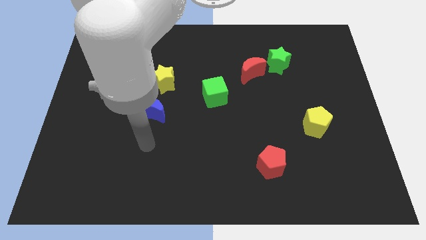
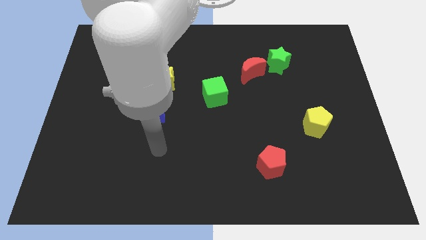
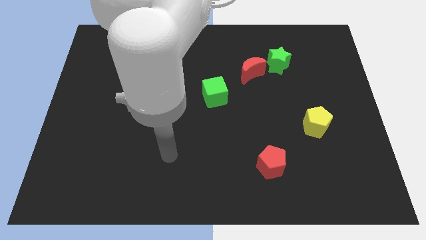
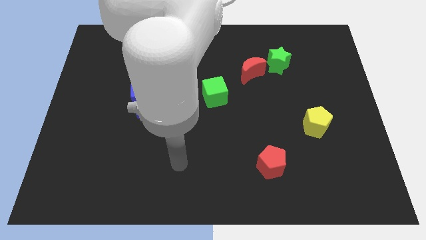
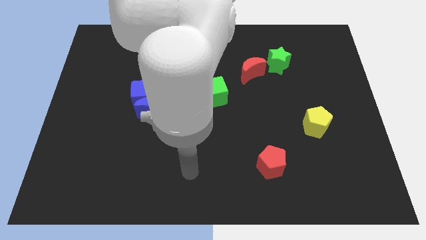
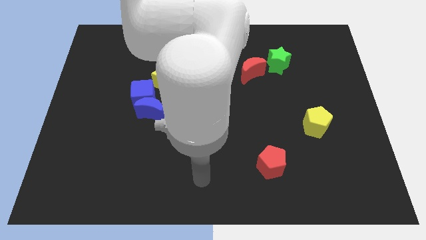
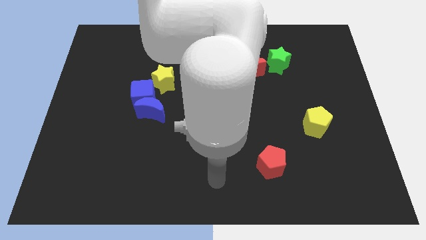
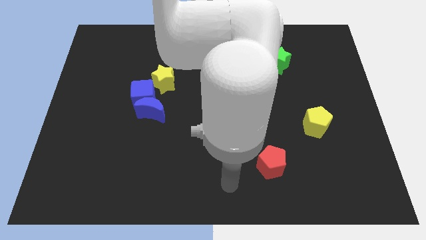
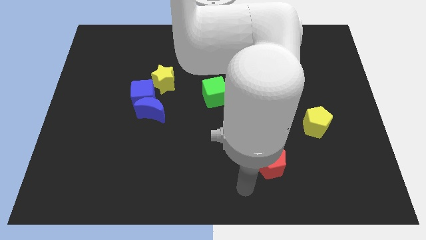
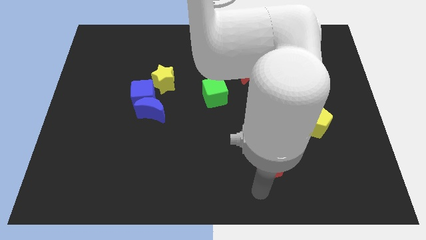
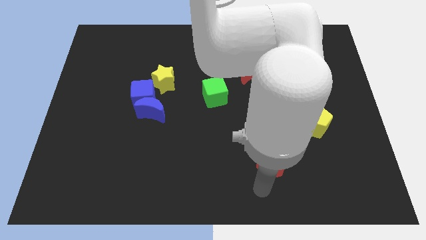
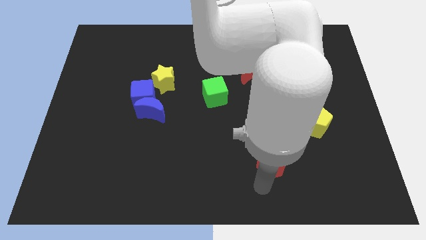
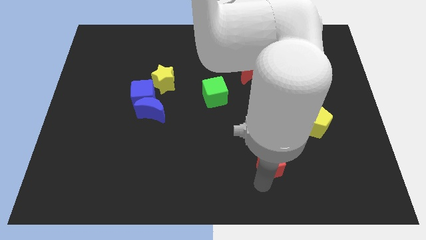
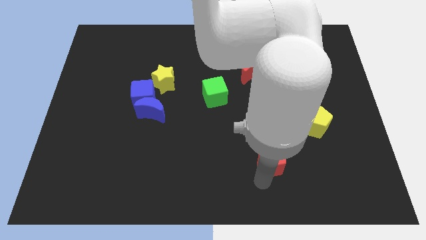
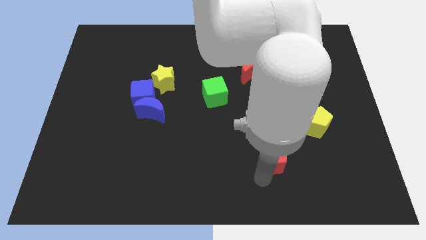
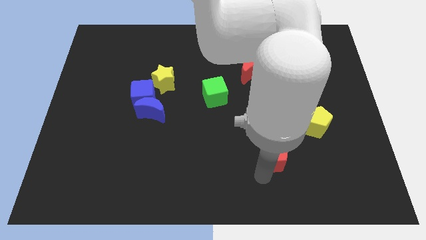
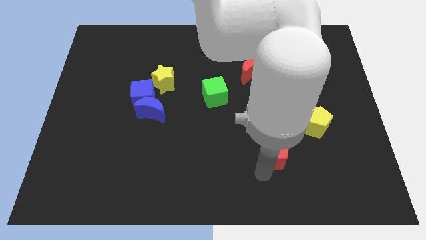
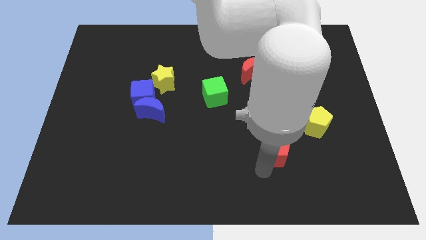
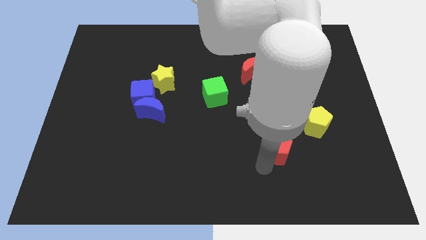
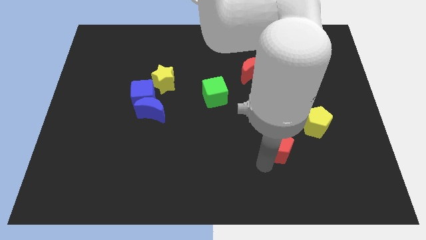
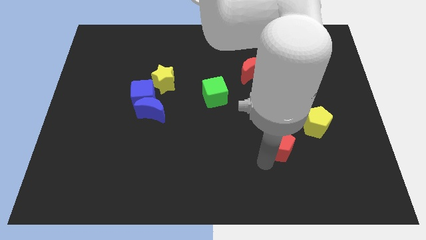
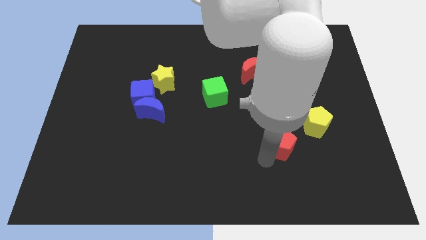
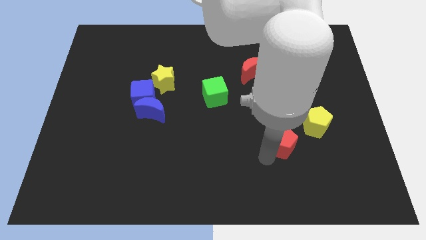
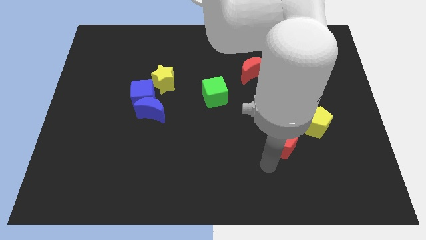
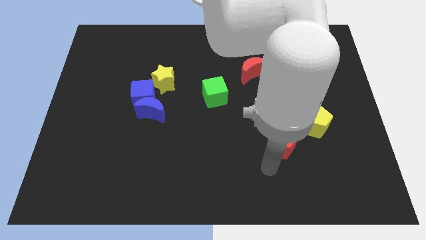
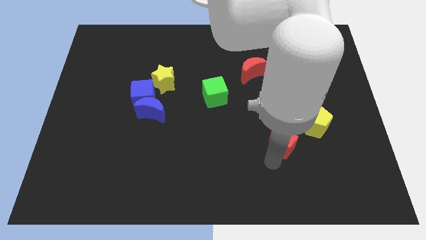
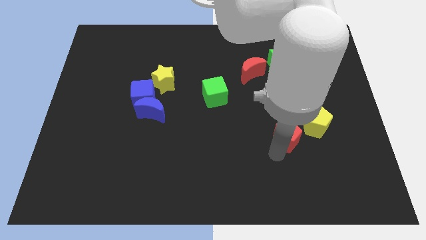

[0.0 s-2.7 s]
push the red pentagon somewhat up and then right

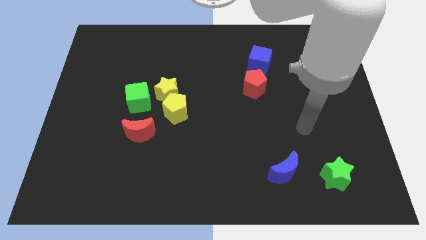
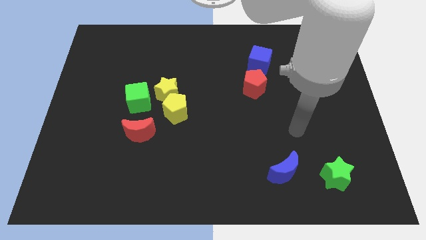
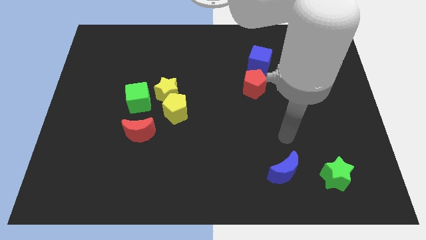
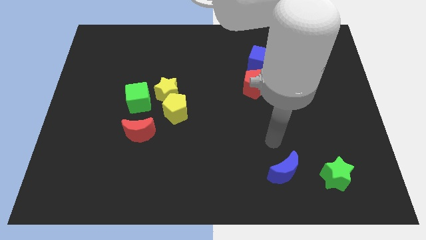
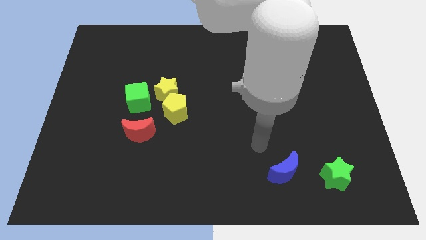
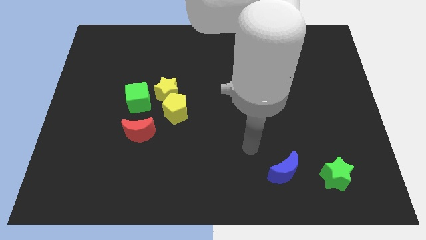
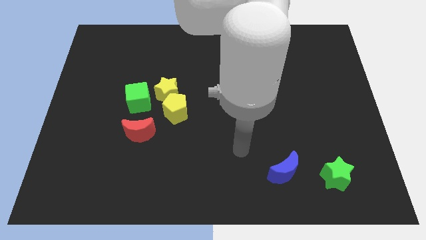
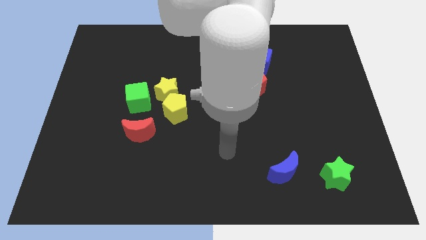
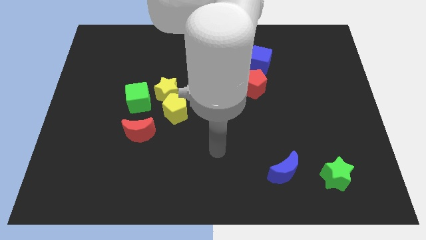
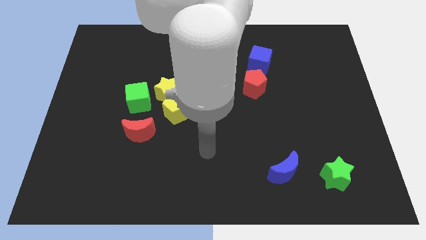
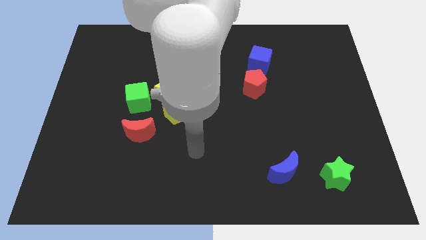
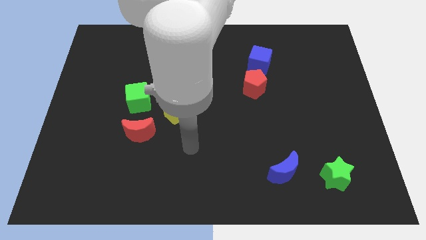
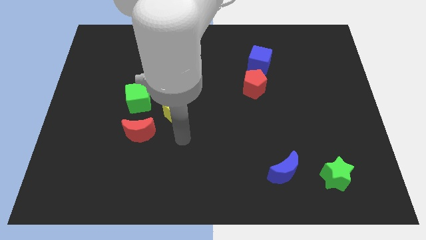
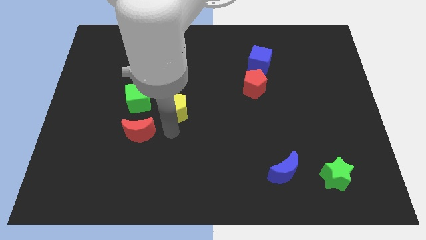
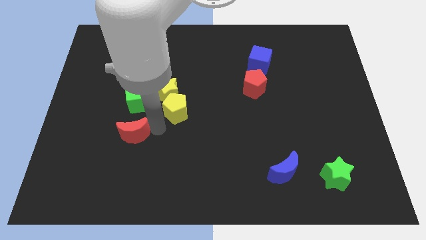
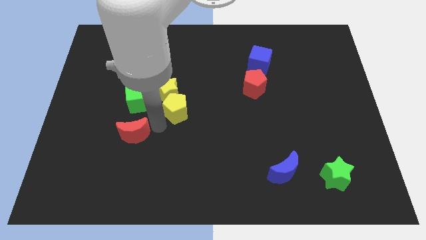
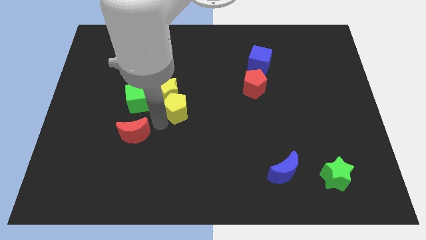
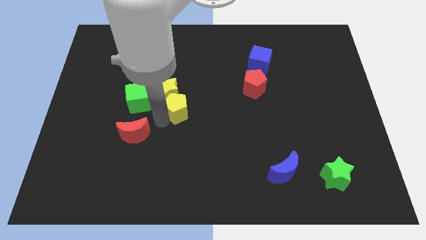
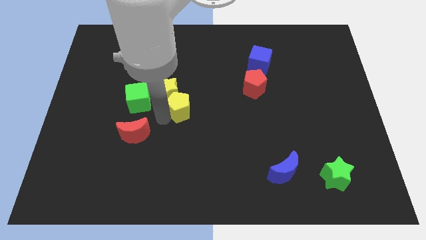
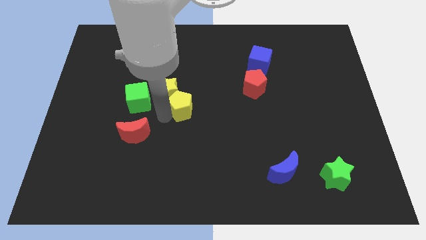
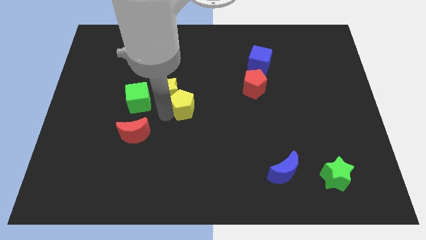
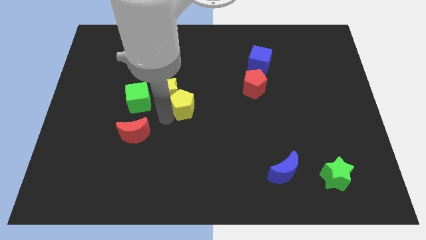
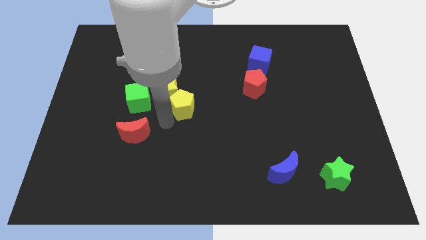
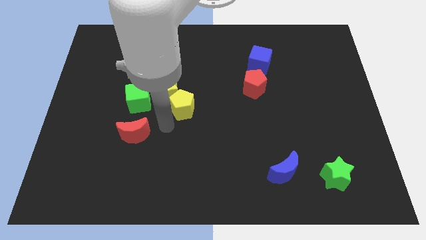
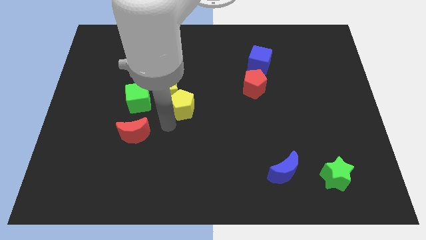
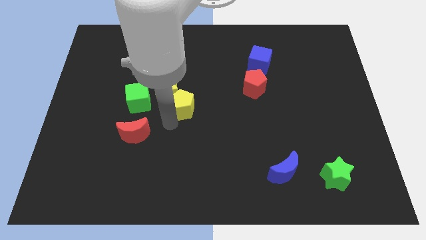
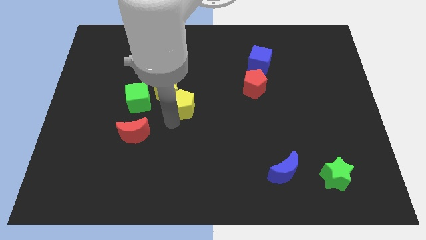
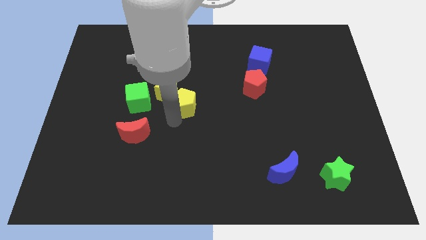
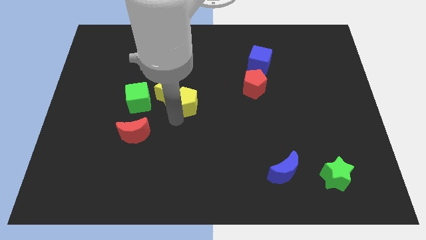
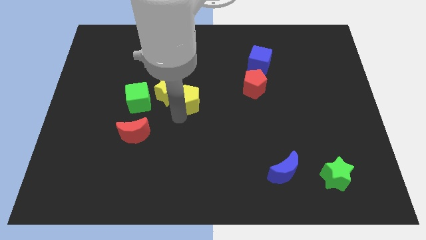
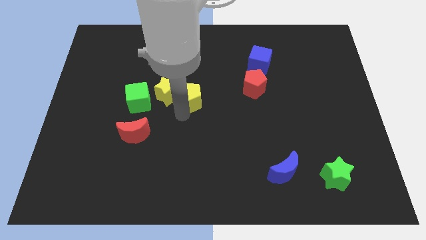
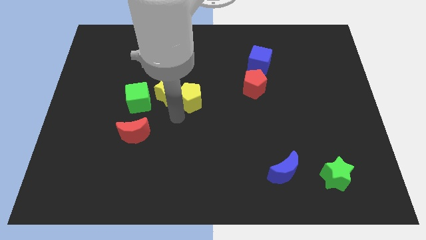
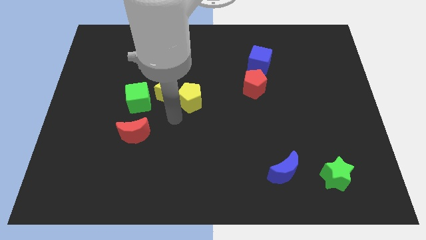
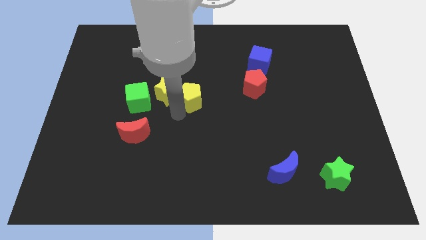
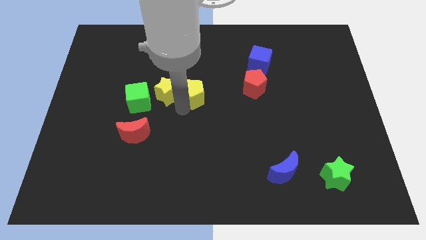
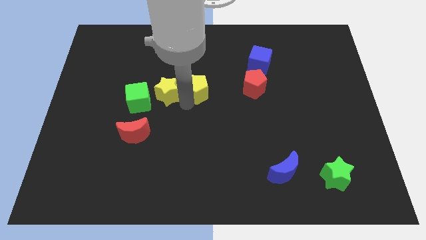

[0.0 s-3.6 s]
slide the yellow pentagon somewhat diagonally upwards and to the right

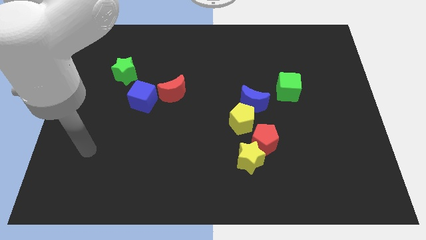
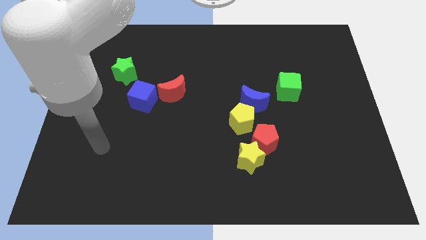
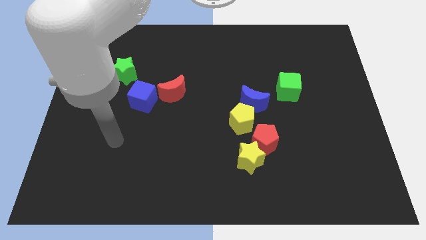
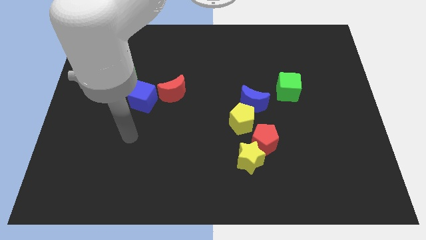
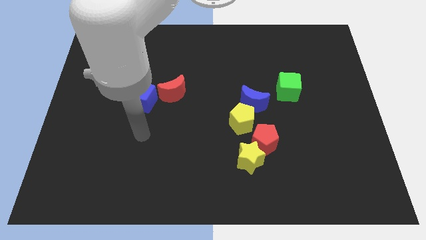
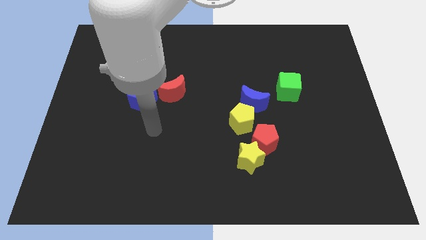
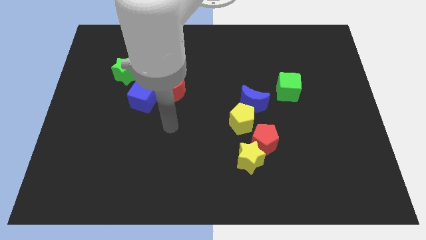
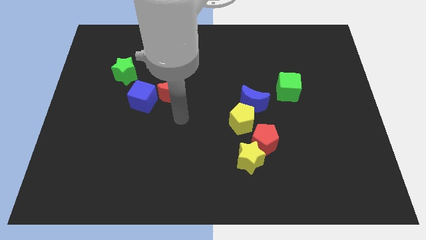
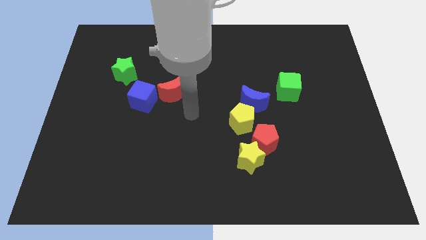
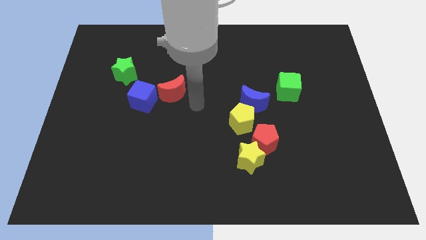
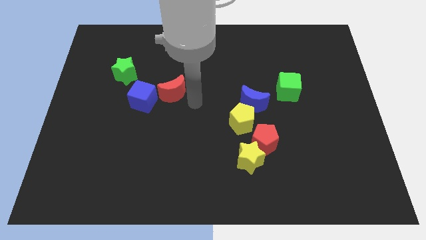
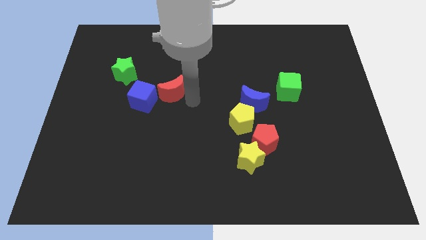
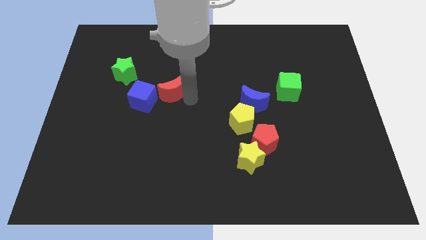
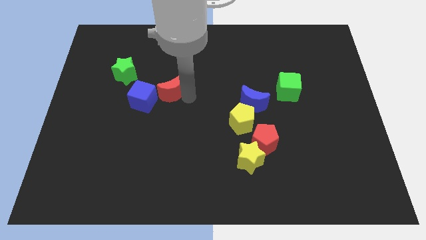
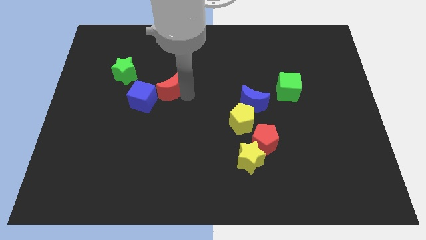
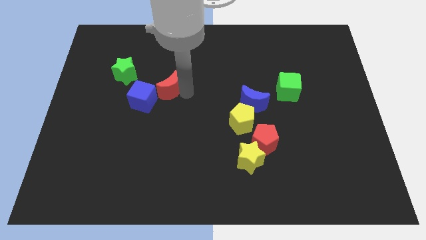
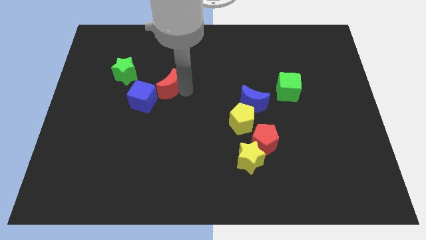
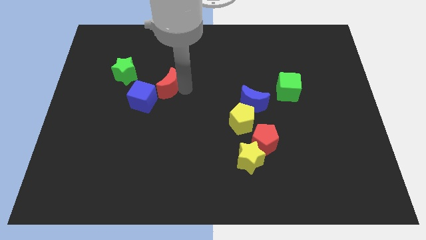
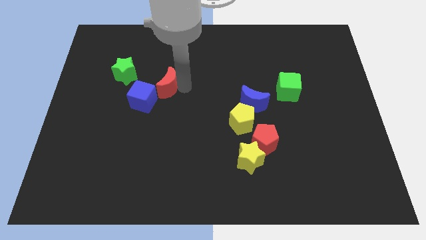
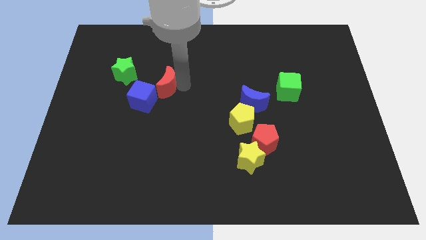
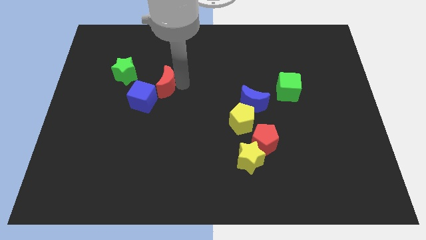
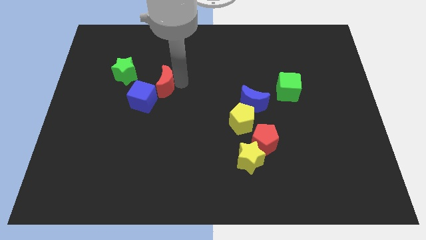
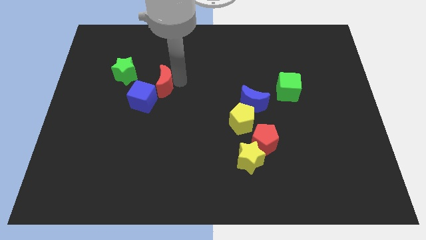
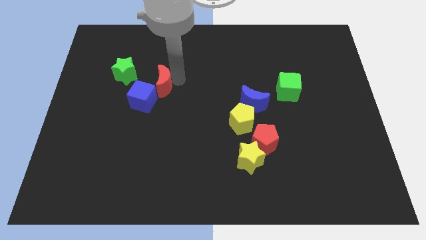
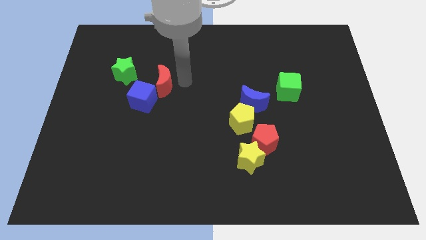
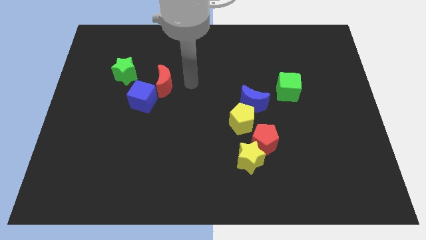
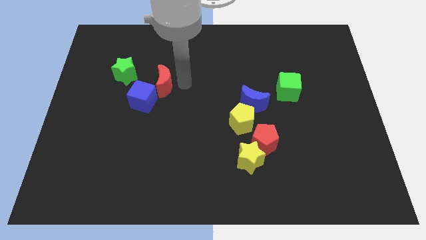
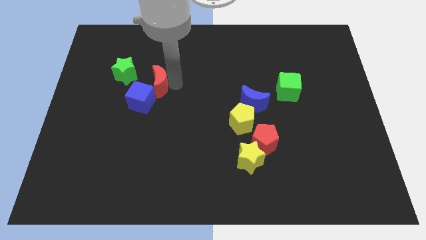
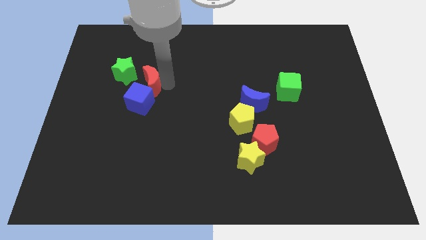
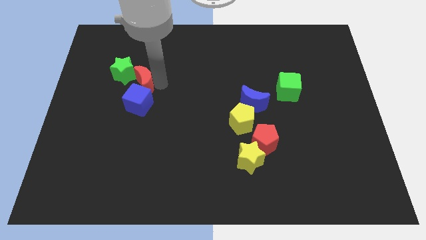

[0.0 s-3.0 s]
slide the red moon to the left a little bit
